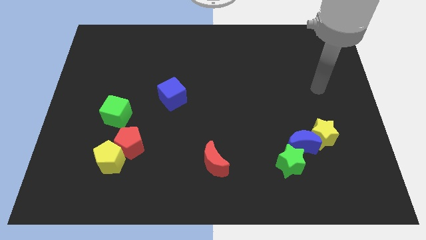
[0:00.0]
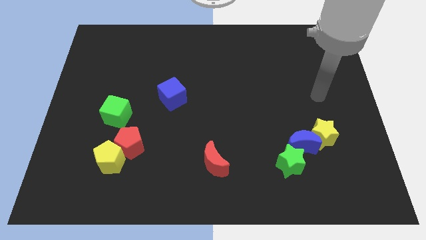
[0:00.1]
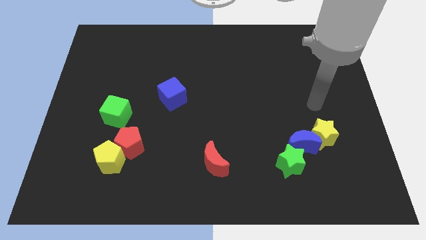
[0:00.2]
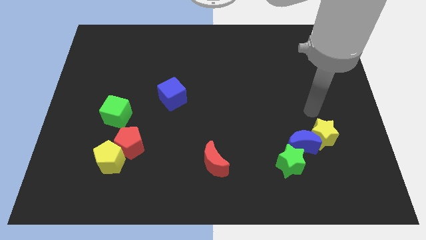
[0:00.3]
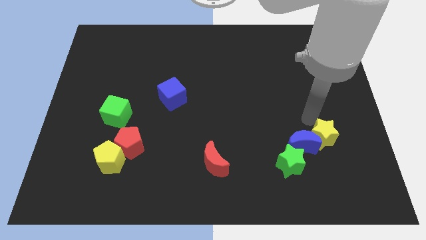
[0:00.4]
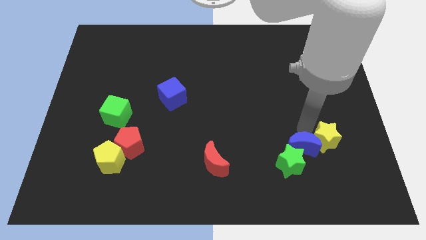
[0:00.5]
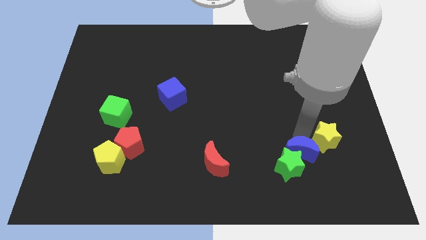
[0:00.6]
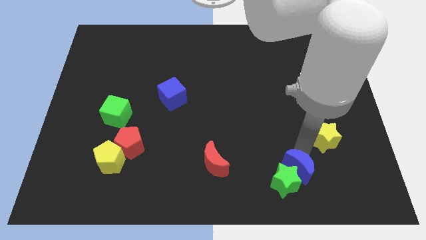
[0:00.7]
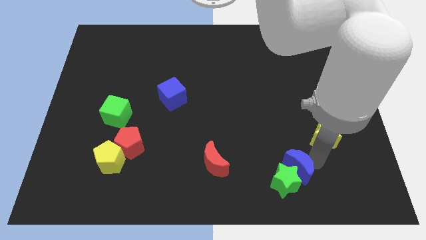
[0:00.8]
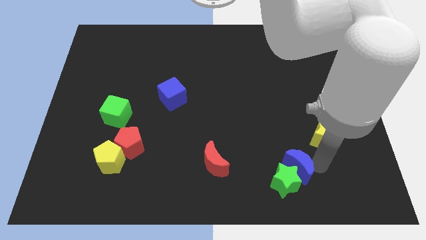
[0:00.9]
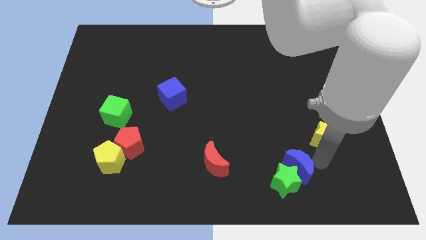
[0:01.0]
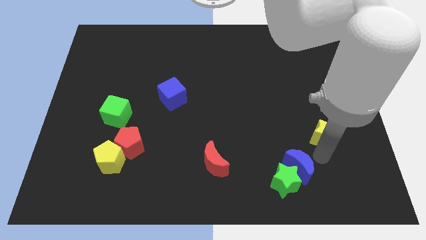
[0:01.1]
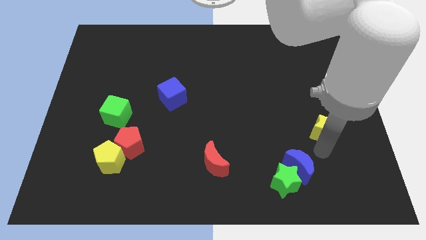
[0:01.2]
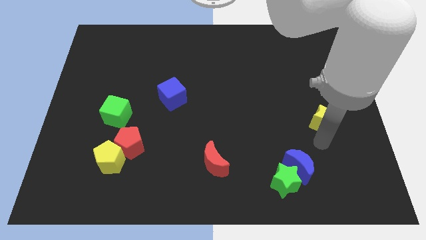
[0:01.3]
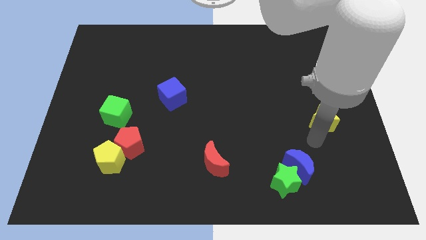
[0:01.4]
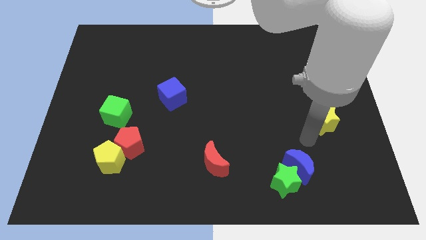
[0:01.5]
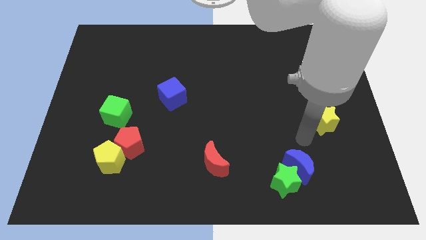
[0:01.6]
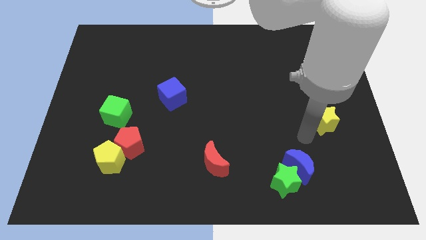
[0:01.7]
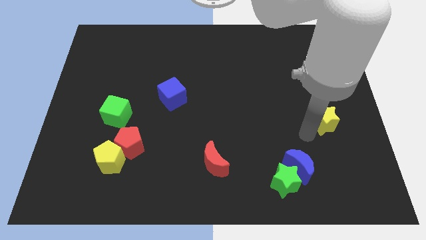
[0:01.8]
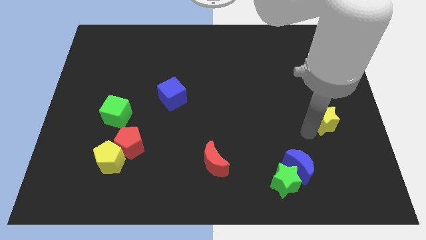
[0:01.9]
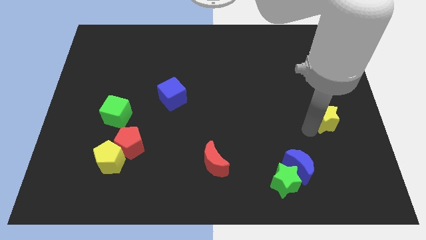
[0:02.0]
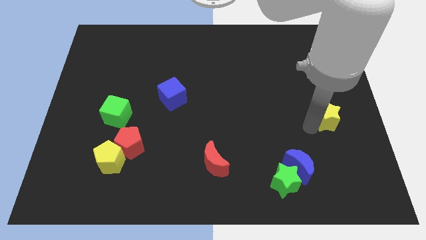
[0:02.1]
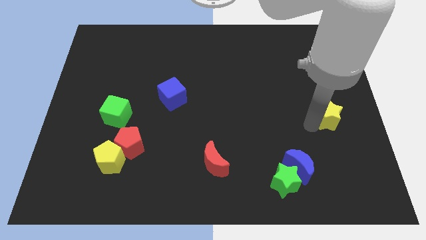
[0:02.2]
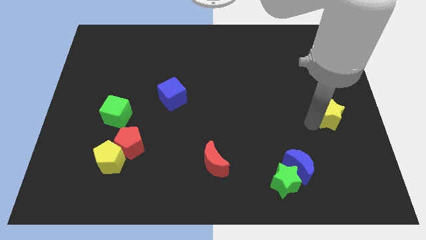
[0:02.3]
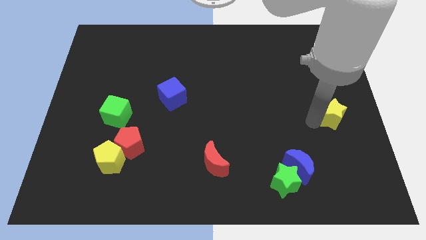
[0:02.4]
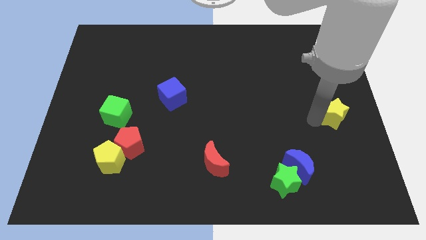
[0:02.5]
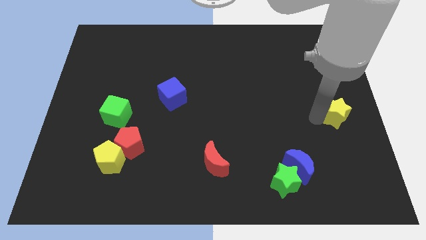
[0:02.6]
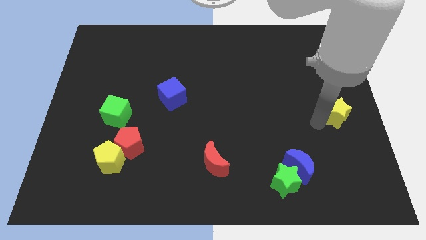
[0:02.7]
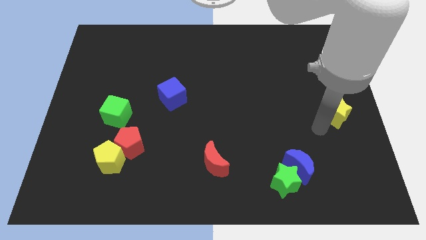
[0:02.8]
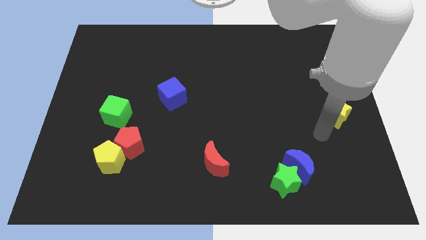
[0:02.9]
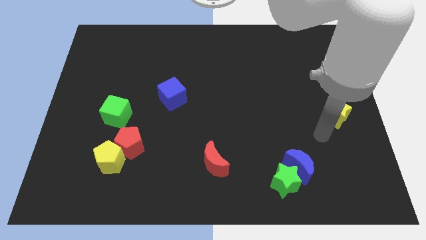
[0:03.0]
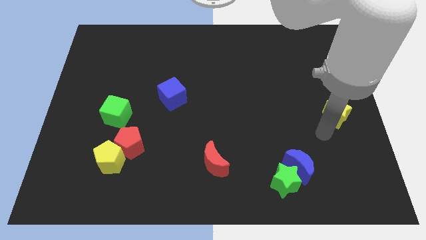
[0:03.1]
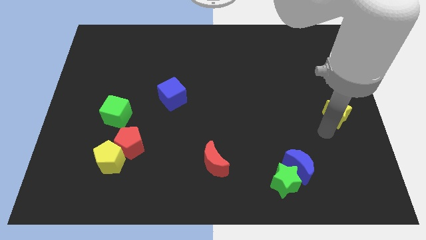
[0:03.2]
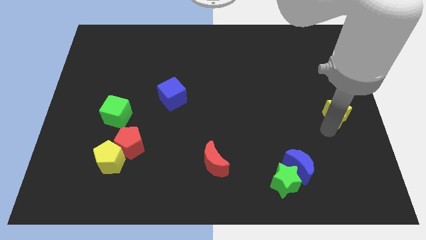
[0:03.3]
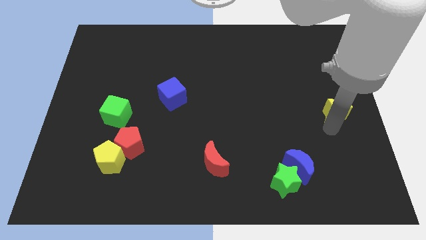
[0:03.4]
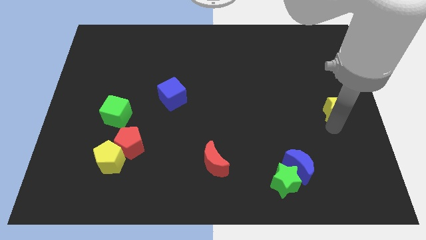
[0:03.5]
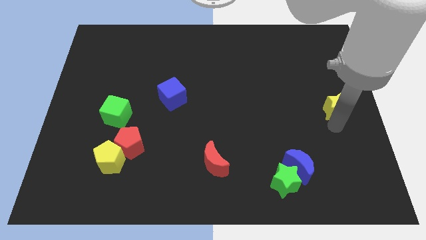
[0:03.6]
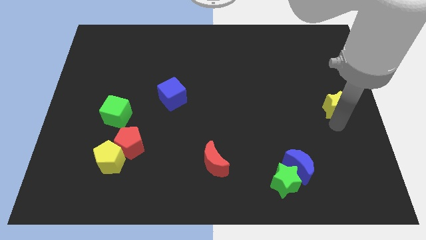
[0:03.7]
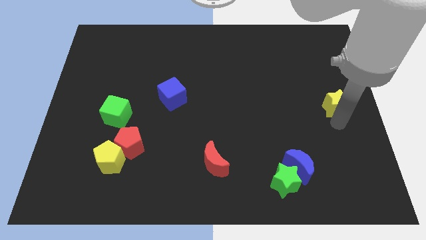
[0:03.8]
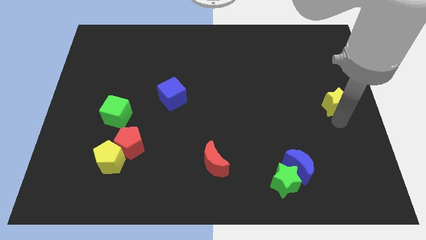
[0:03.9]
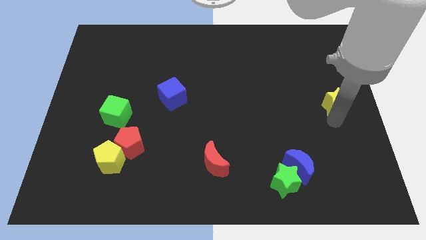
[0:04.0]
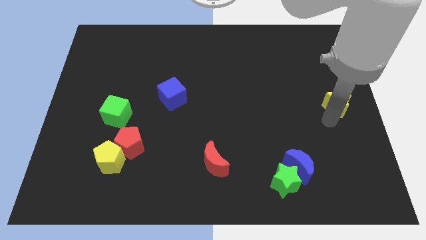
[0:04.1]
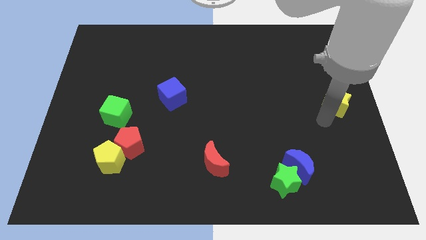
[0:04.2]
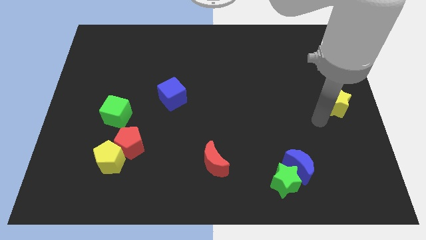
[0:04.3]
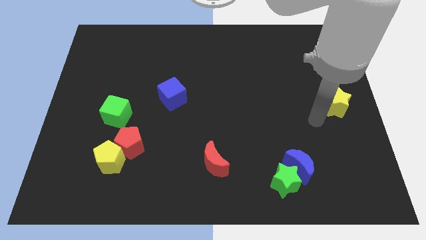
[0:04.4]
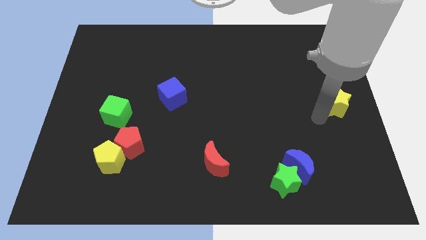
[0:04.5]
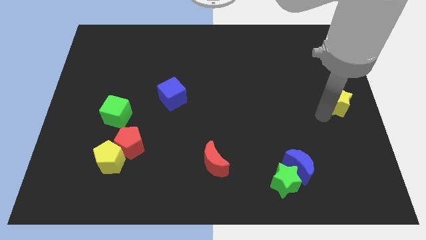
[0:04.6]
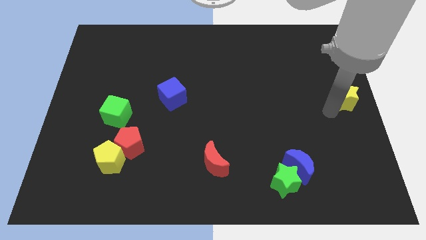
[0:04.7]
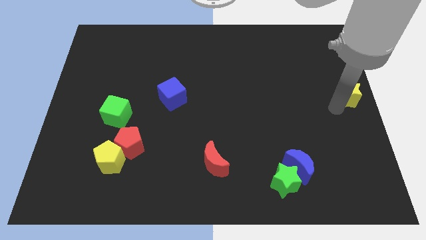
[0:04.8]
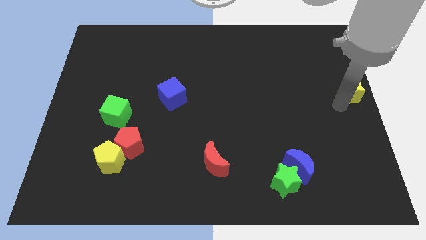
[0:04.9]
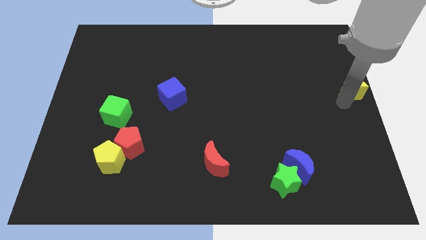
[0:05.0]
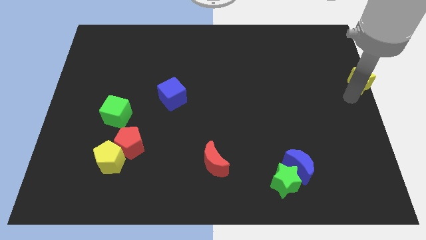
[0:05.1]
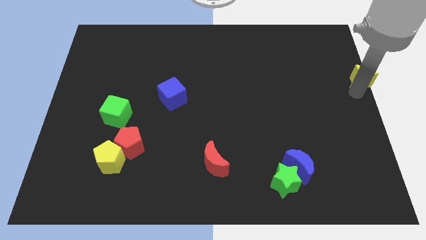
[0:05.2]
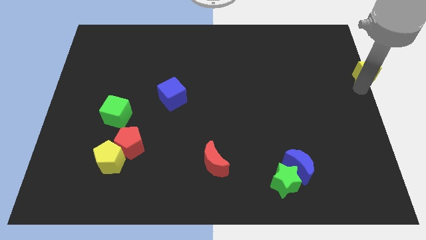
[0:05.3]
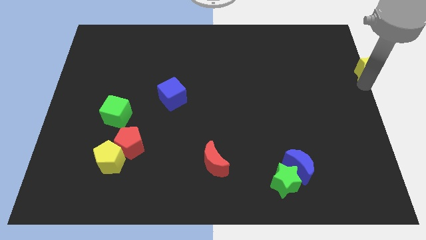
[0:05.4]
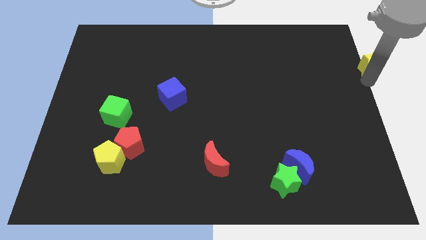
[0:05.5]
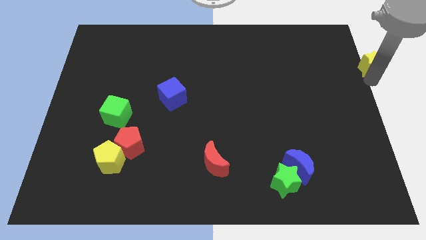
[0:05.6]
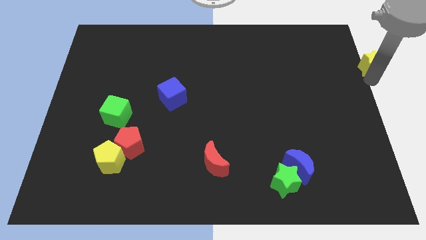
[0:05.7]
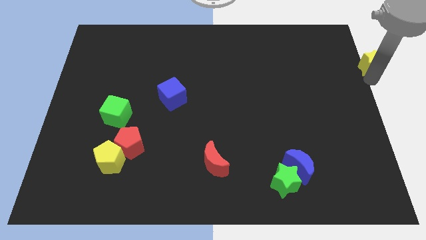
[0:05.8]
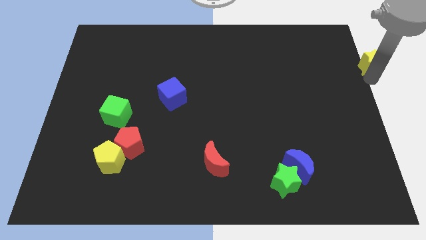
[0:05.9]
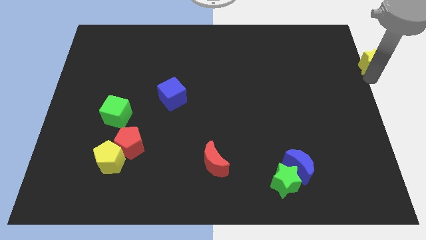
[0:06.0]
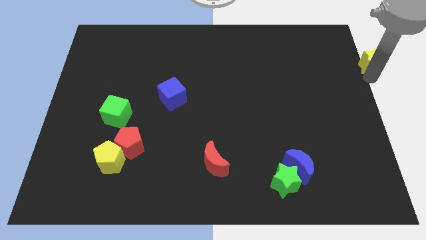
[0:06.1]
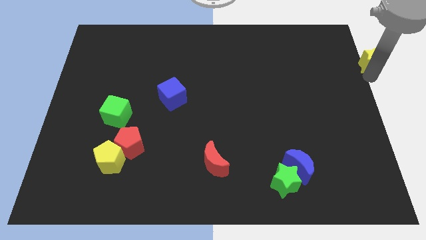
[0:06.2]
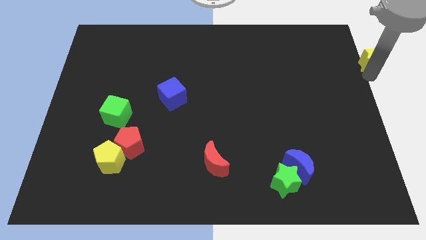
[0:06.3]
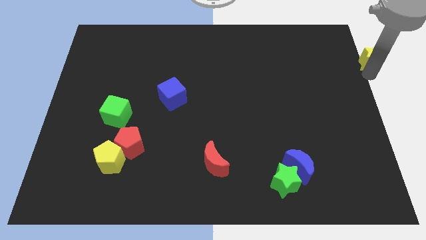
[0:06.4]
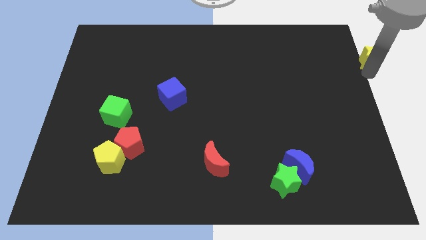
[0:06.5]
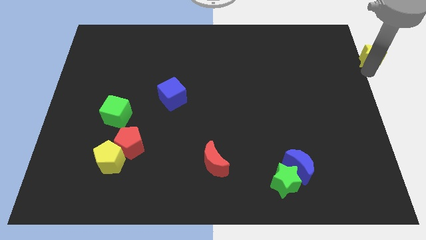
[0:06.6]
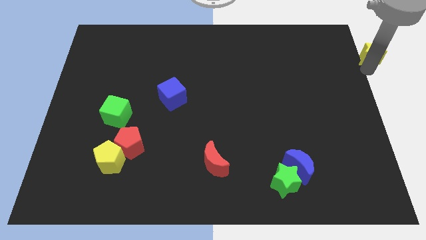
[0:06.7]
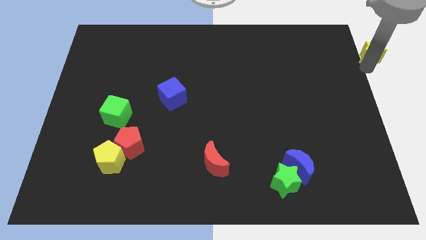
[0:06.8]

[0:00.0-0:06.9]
slide the yellow star to the top right corner
